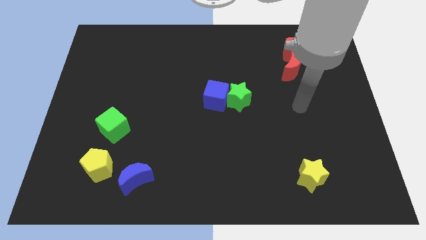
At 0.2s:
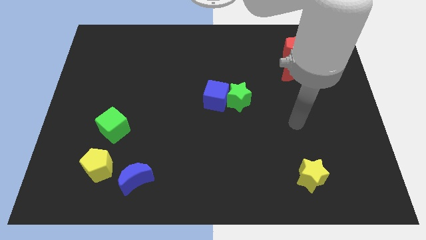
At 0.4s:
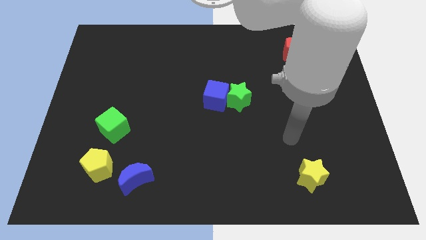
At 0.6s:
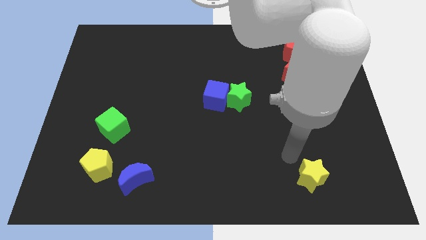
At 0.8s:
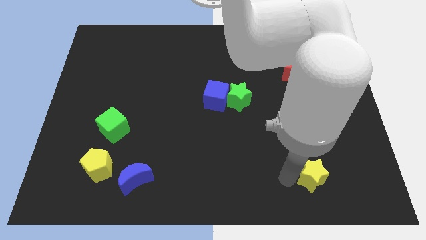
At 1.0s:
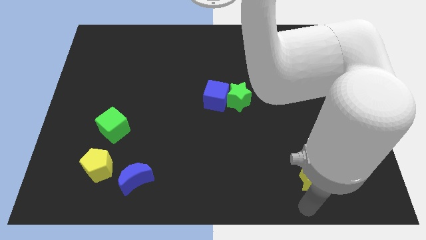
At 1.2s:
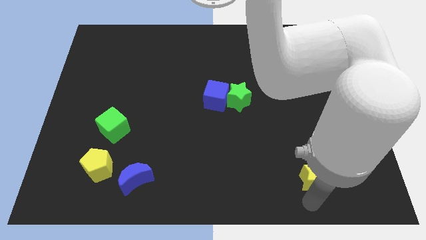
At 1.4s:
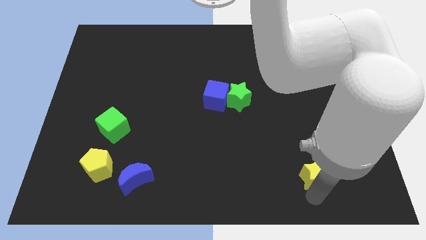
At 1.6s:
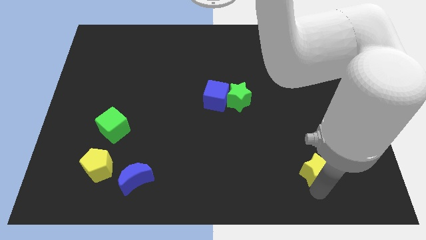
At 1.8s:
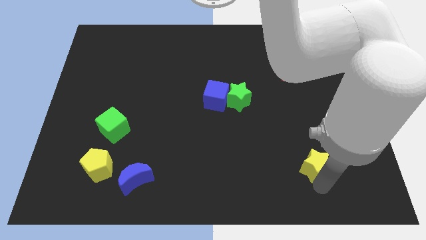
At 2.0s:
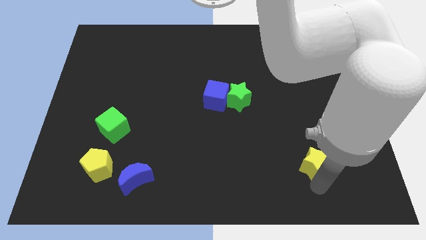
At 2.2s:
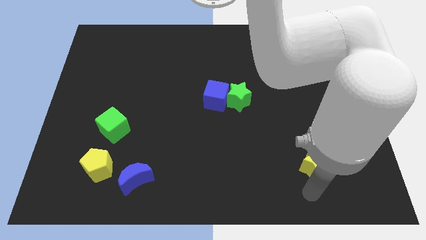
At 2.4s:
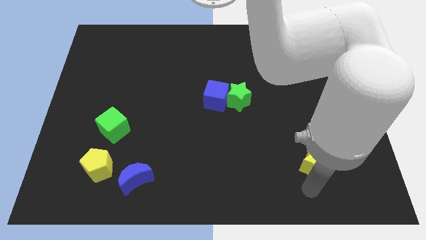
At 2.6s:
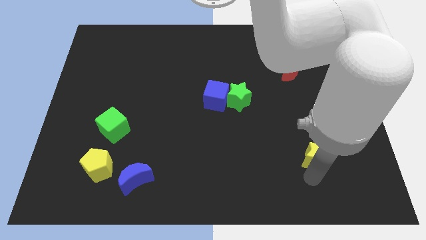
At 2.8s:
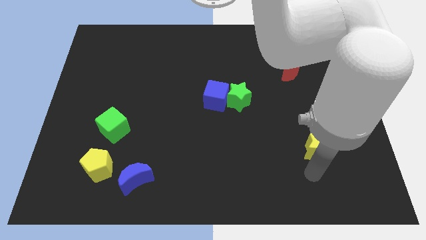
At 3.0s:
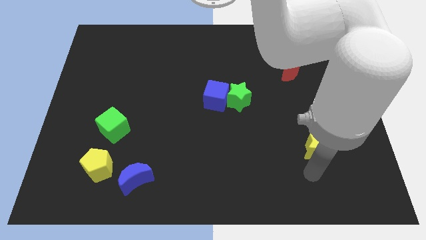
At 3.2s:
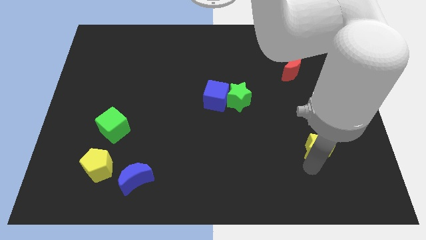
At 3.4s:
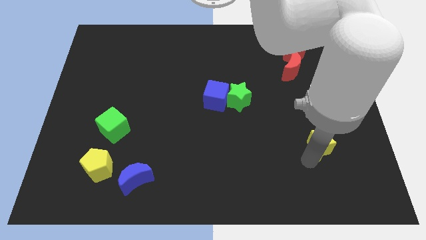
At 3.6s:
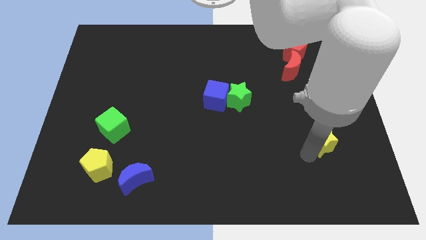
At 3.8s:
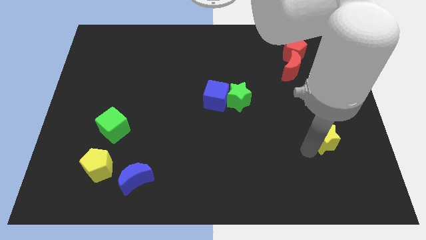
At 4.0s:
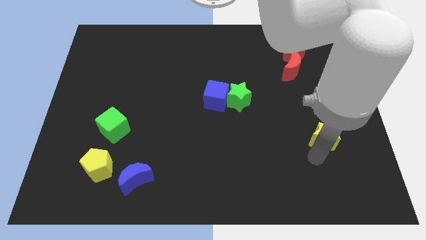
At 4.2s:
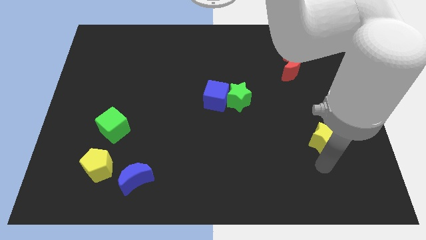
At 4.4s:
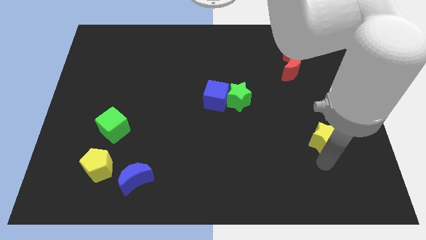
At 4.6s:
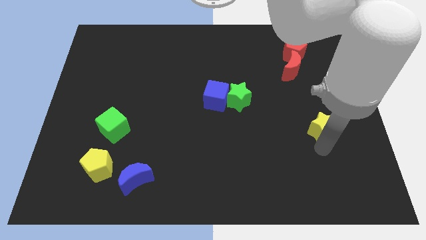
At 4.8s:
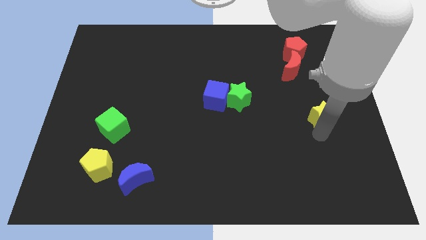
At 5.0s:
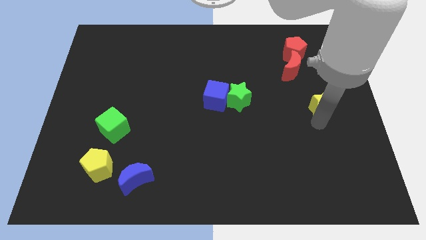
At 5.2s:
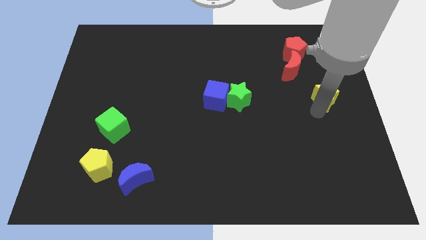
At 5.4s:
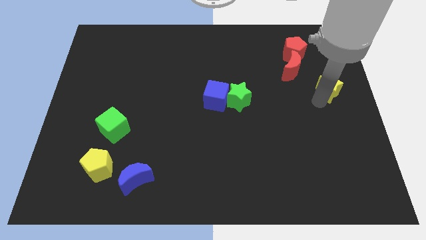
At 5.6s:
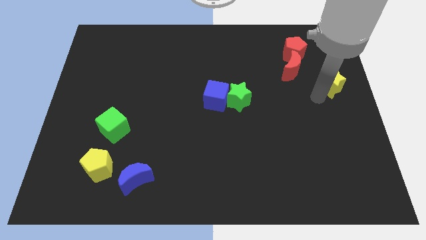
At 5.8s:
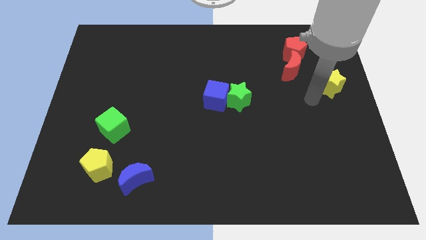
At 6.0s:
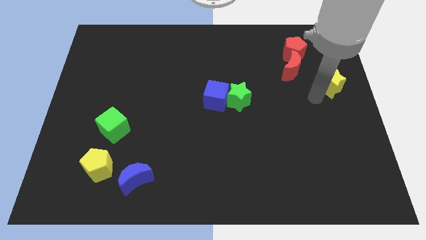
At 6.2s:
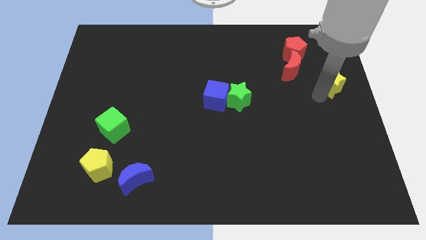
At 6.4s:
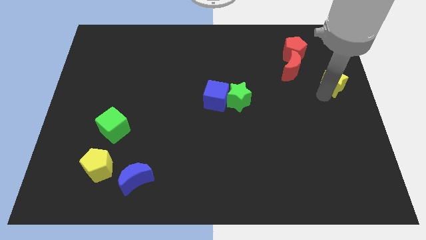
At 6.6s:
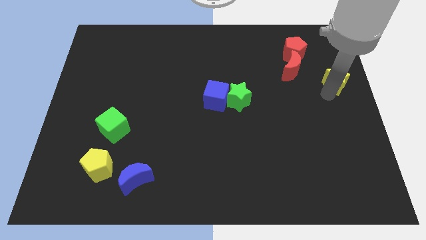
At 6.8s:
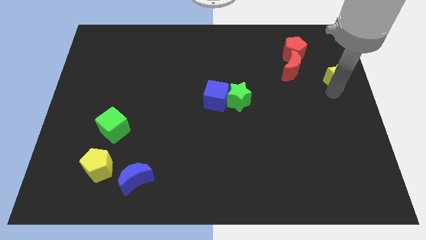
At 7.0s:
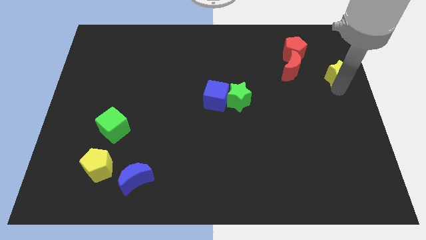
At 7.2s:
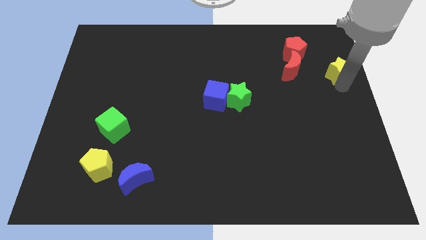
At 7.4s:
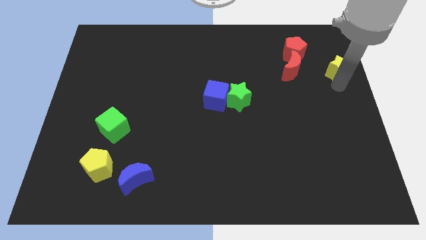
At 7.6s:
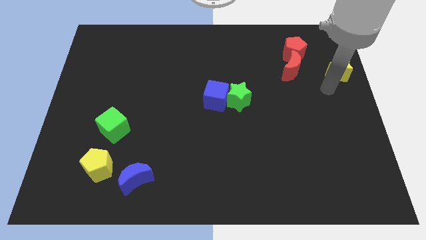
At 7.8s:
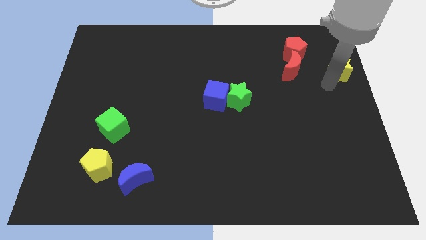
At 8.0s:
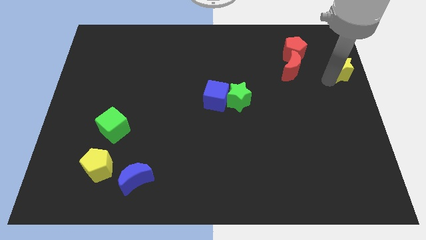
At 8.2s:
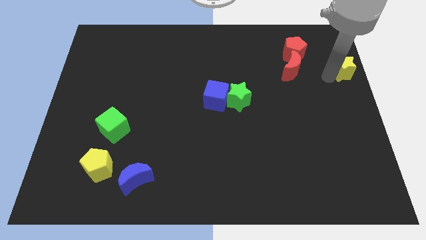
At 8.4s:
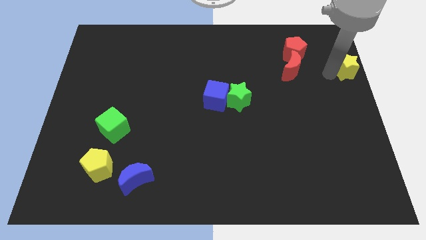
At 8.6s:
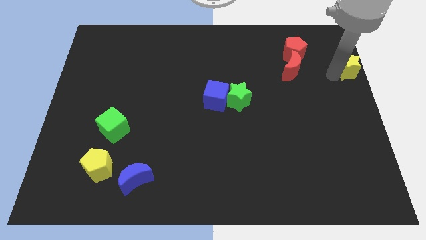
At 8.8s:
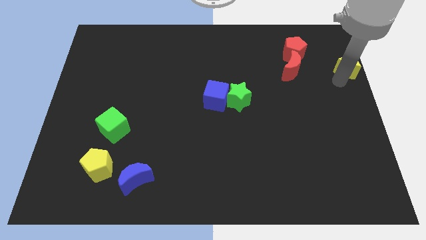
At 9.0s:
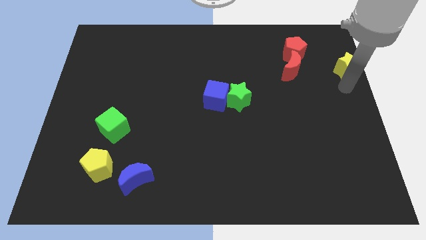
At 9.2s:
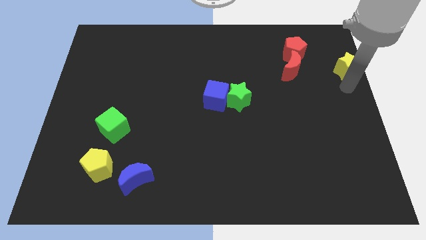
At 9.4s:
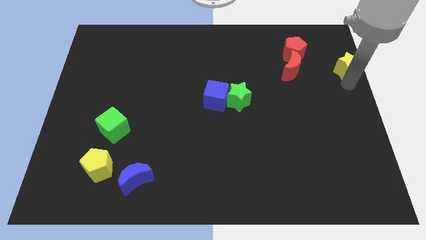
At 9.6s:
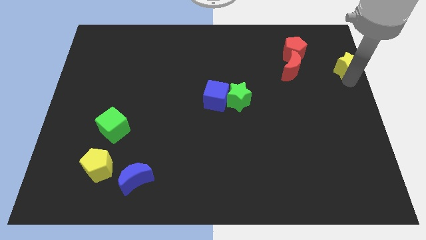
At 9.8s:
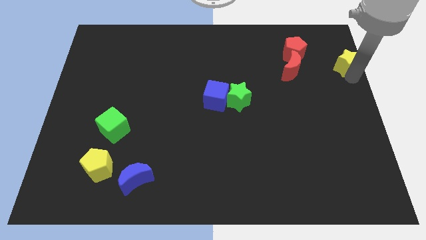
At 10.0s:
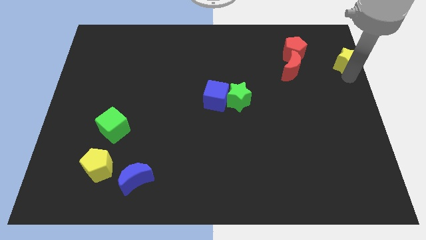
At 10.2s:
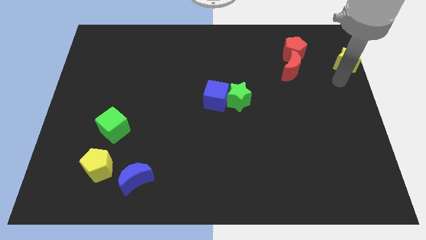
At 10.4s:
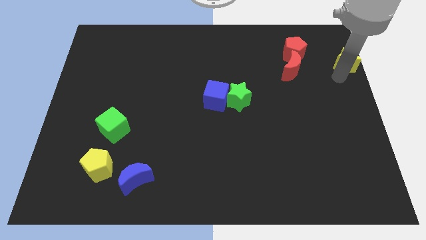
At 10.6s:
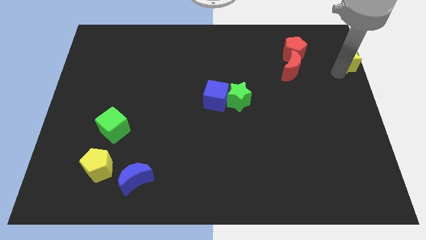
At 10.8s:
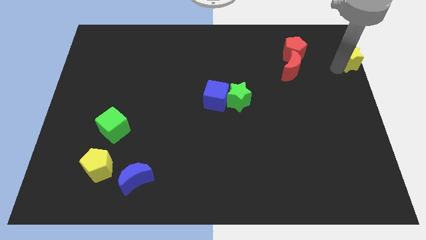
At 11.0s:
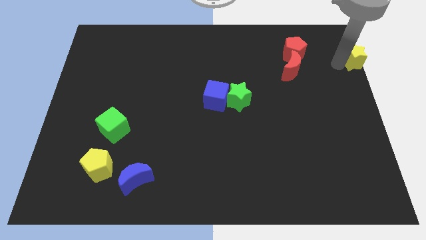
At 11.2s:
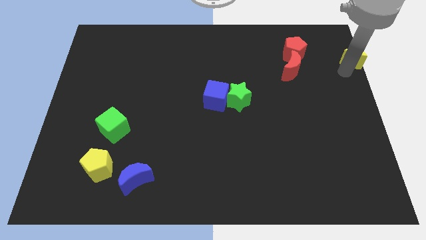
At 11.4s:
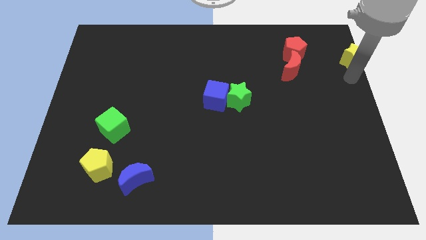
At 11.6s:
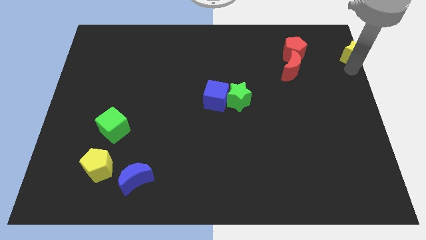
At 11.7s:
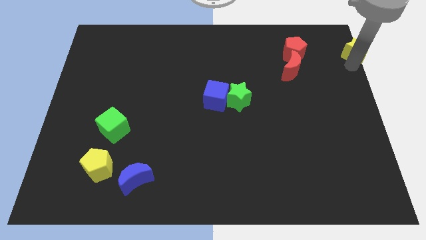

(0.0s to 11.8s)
push the yellow star to the top right corner
